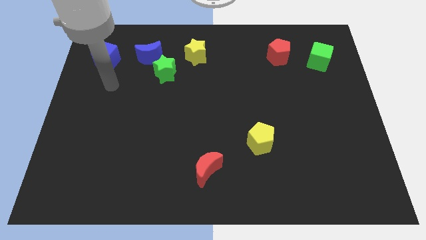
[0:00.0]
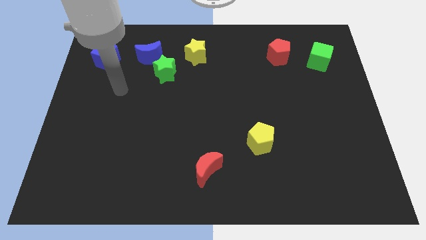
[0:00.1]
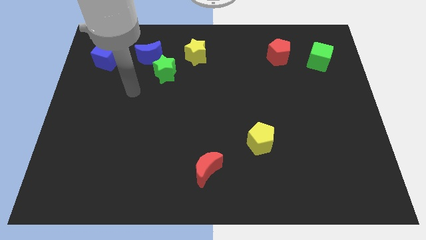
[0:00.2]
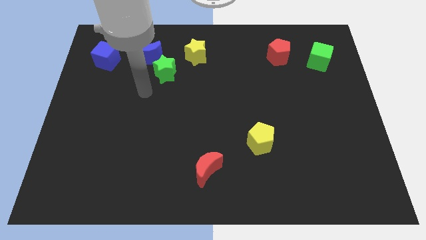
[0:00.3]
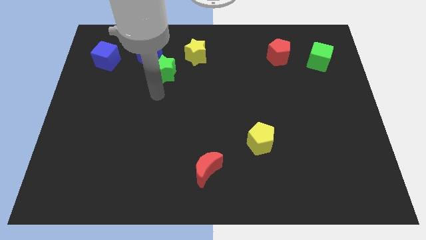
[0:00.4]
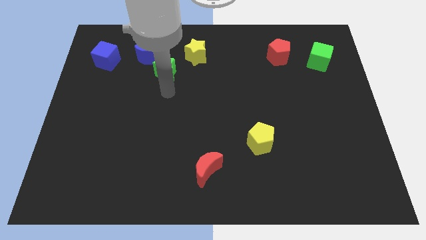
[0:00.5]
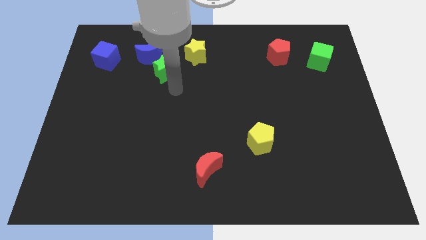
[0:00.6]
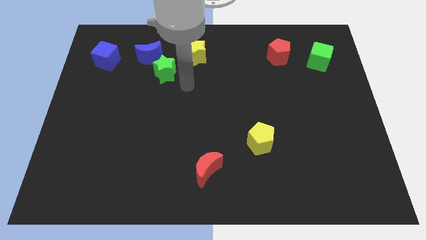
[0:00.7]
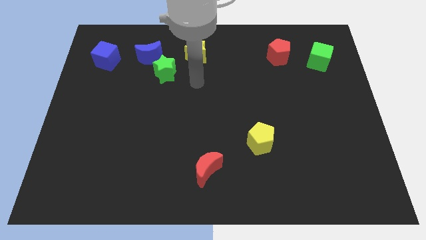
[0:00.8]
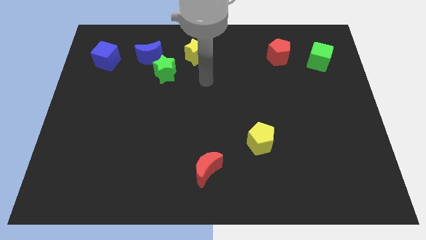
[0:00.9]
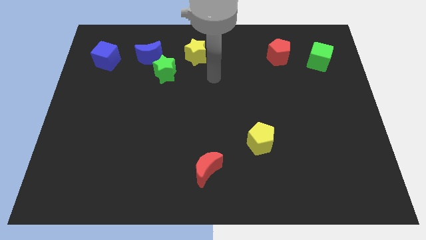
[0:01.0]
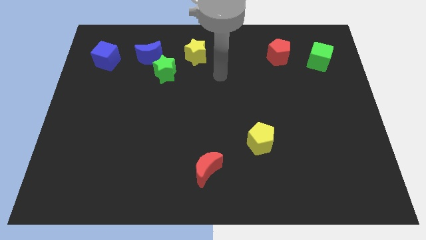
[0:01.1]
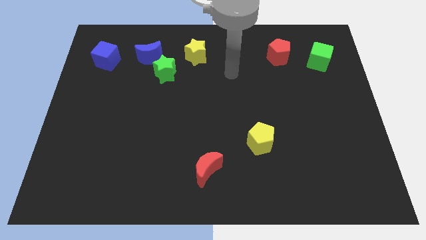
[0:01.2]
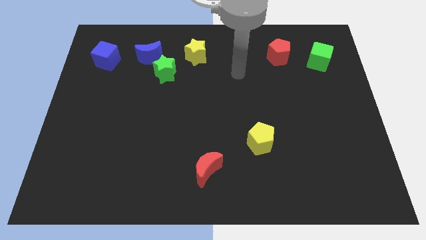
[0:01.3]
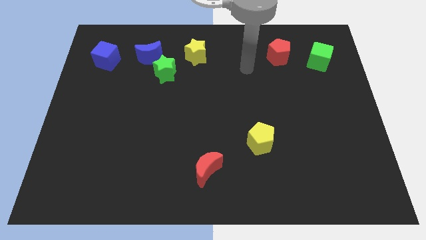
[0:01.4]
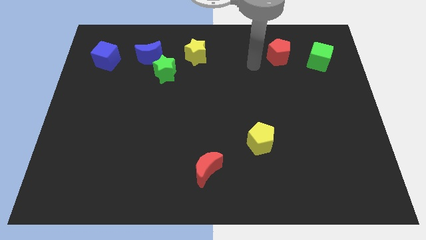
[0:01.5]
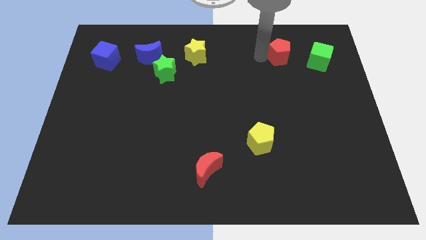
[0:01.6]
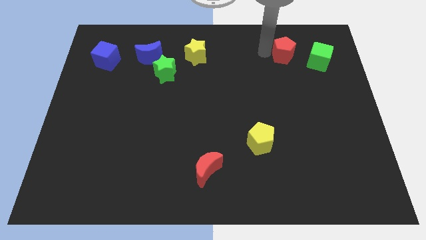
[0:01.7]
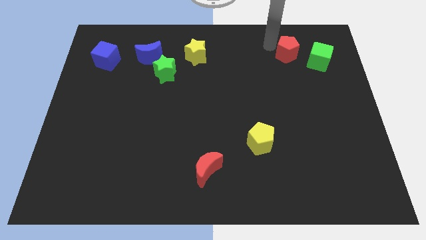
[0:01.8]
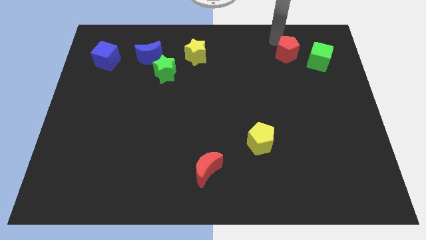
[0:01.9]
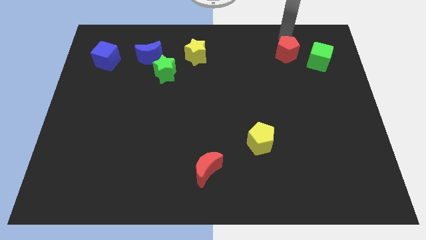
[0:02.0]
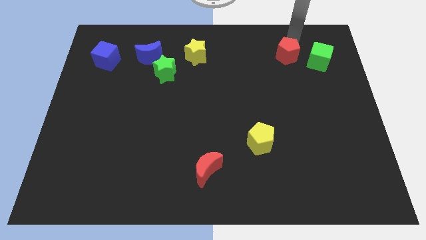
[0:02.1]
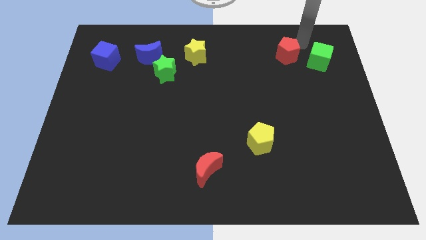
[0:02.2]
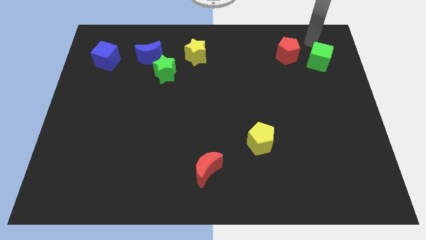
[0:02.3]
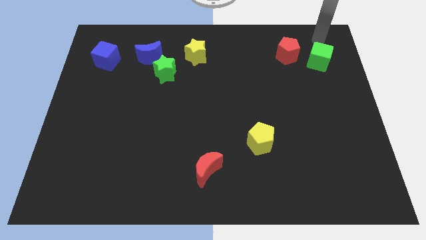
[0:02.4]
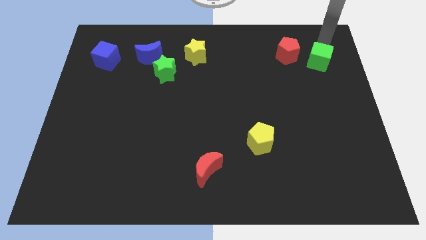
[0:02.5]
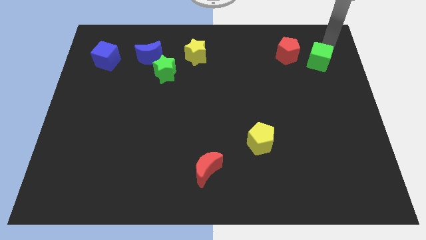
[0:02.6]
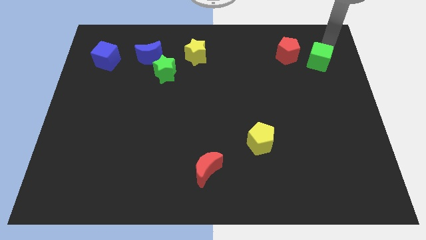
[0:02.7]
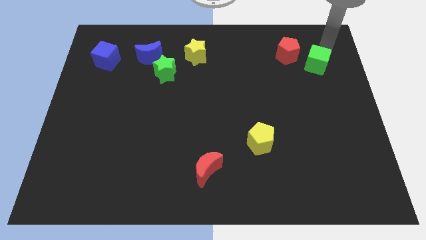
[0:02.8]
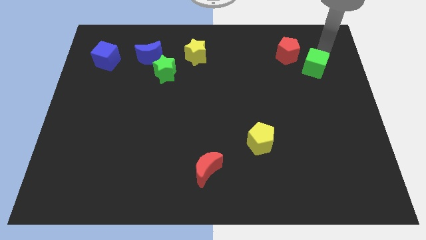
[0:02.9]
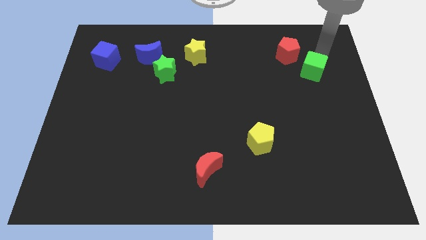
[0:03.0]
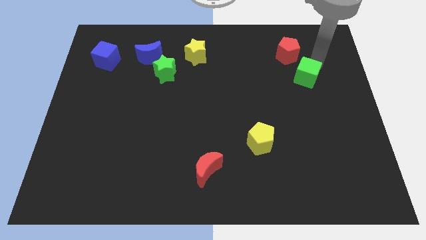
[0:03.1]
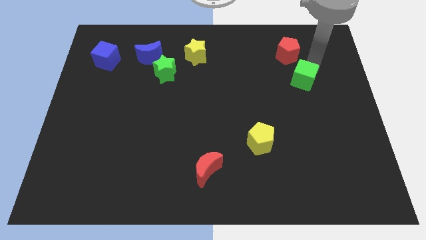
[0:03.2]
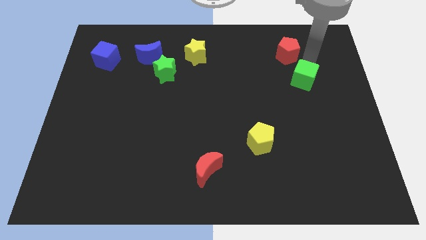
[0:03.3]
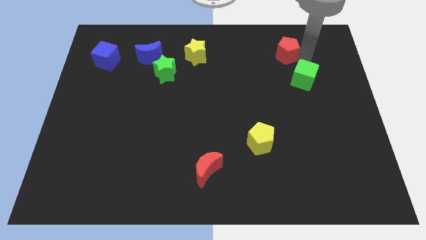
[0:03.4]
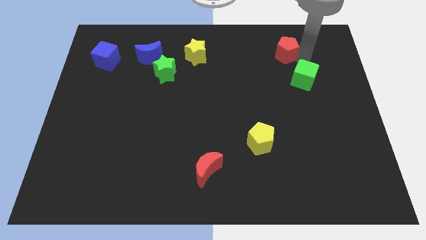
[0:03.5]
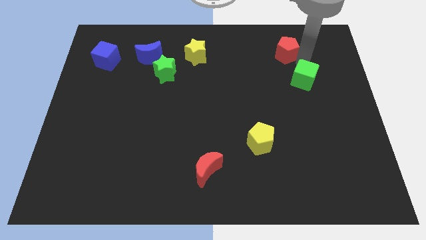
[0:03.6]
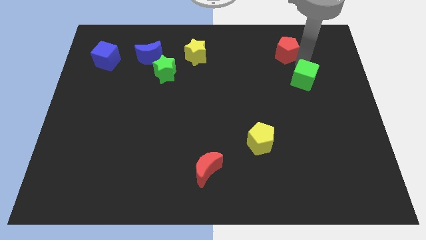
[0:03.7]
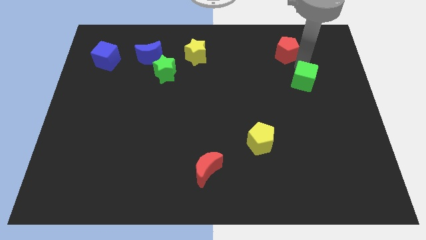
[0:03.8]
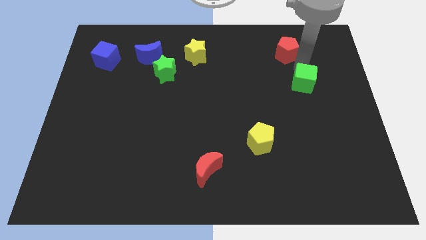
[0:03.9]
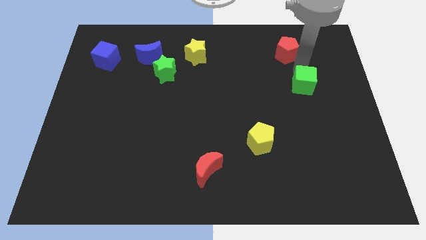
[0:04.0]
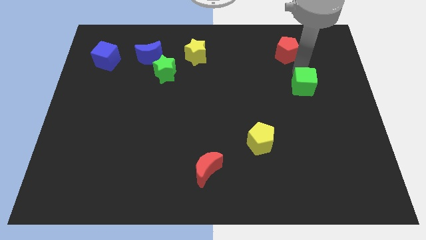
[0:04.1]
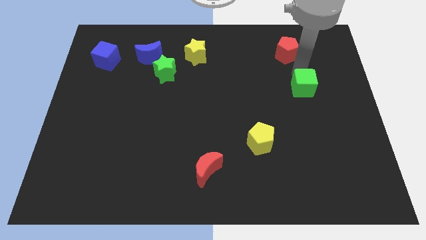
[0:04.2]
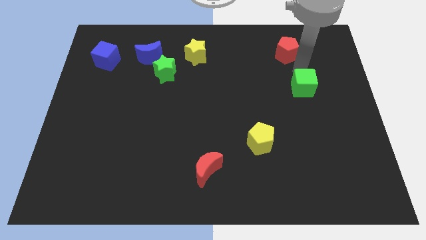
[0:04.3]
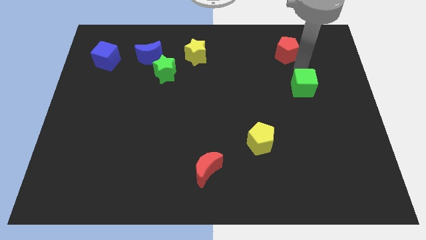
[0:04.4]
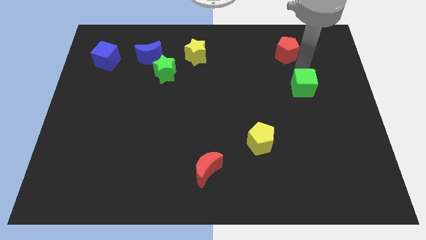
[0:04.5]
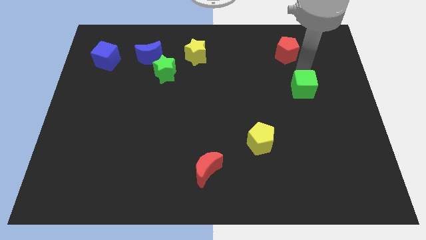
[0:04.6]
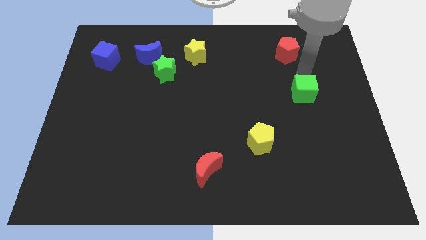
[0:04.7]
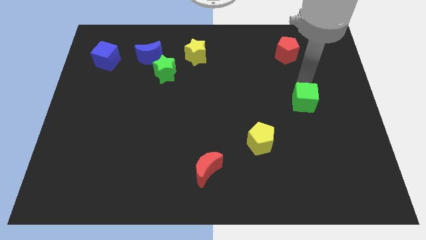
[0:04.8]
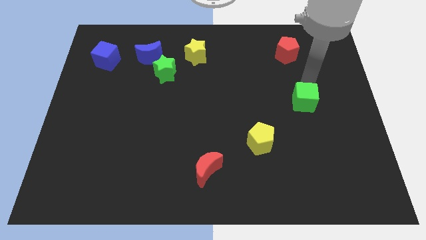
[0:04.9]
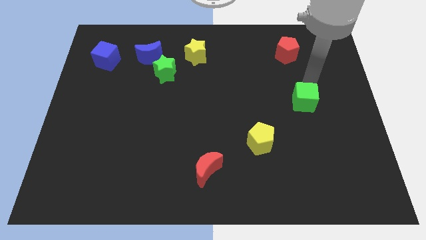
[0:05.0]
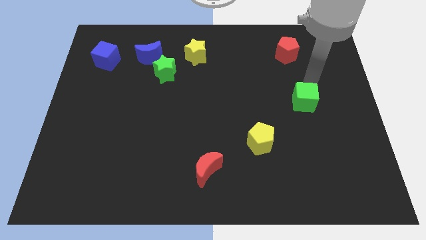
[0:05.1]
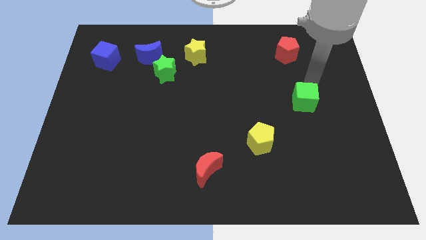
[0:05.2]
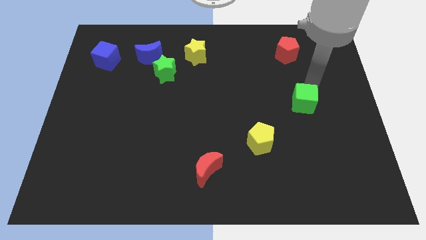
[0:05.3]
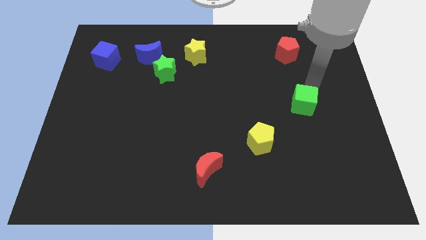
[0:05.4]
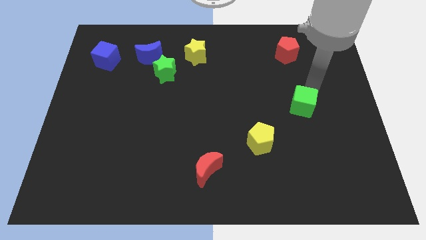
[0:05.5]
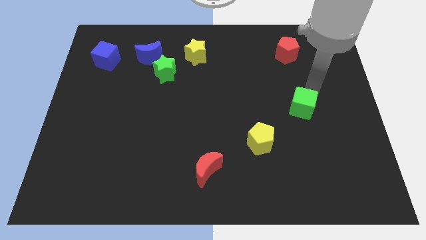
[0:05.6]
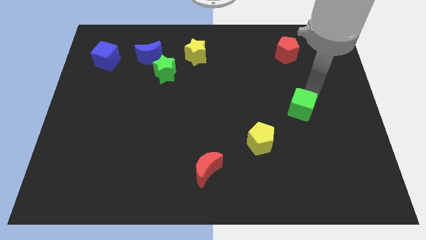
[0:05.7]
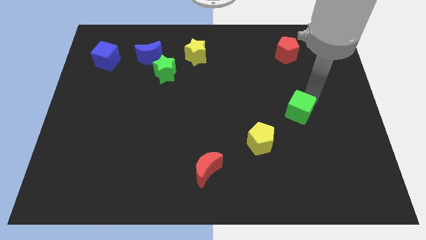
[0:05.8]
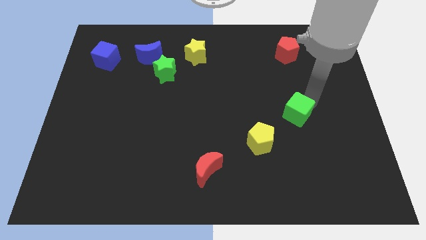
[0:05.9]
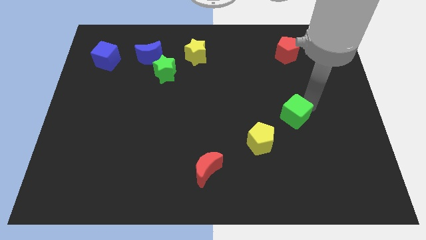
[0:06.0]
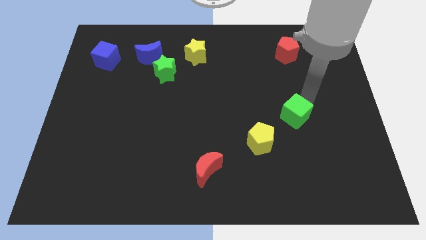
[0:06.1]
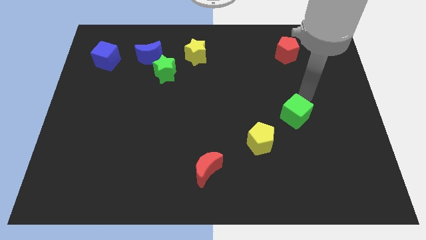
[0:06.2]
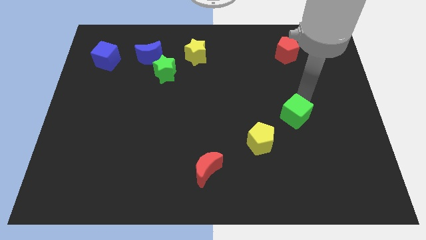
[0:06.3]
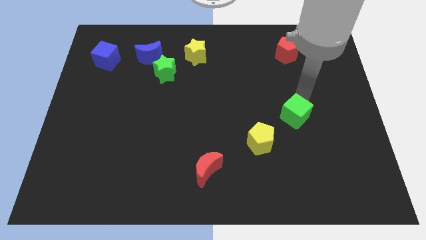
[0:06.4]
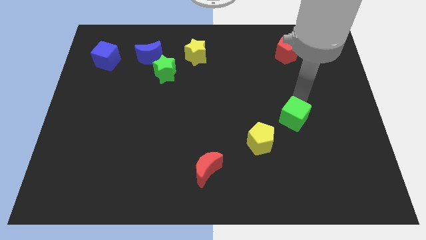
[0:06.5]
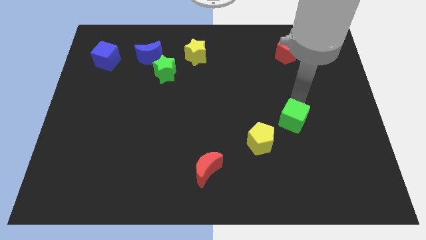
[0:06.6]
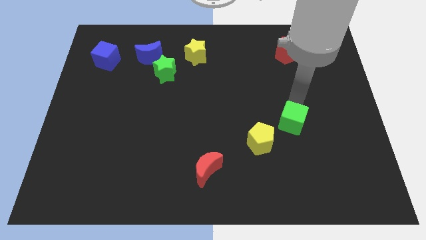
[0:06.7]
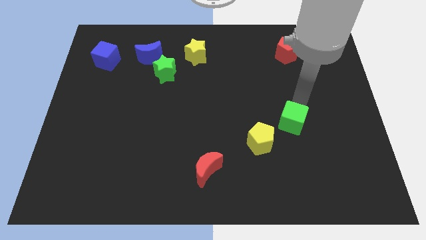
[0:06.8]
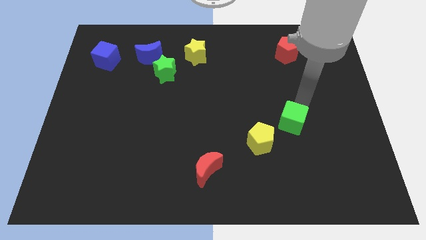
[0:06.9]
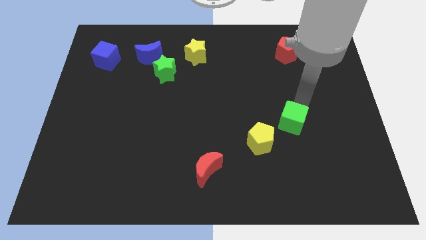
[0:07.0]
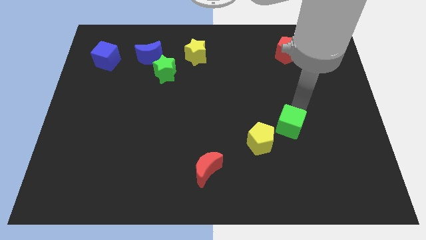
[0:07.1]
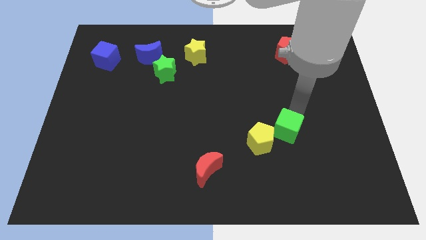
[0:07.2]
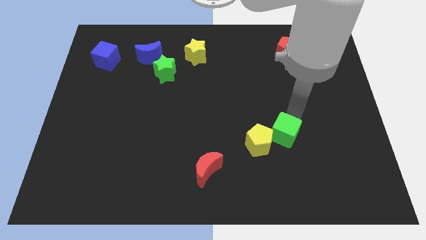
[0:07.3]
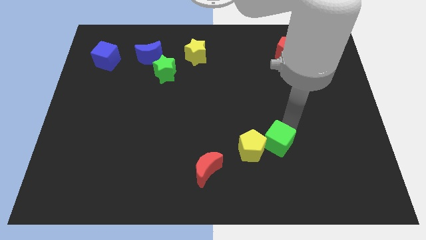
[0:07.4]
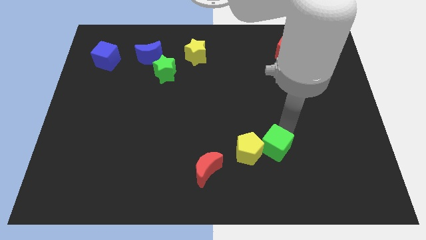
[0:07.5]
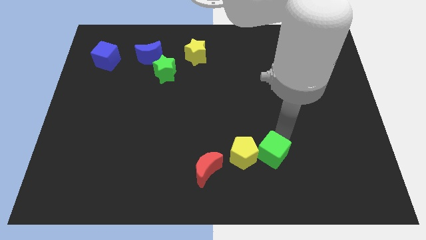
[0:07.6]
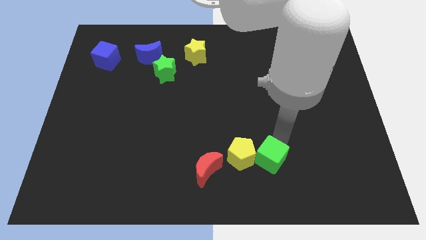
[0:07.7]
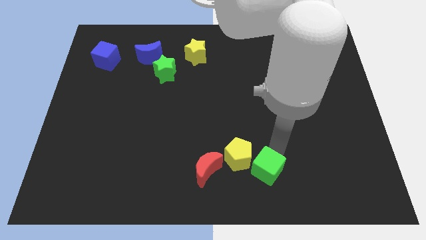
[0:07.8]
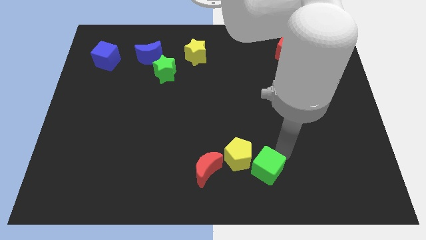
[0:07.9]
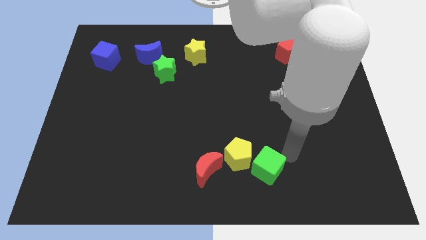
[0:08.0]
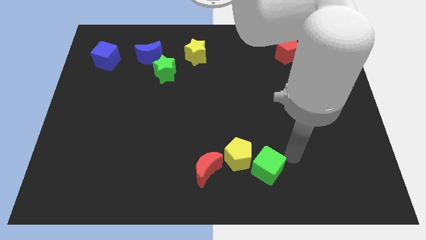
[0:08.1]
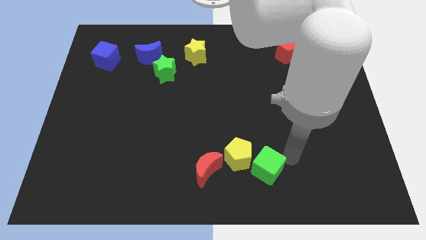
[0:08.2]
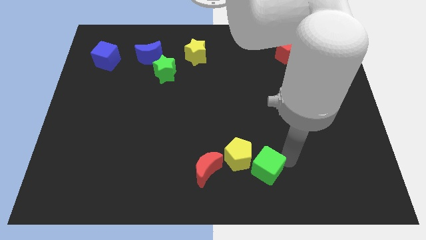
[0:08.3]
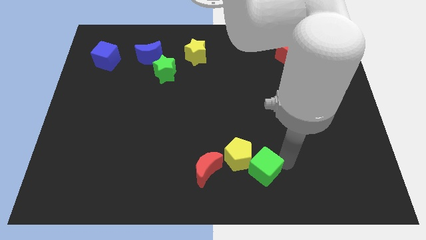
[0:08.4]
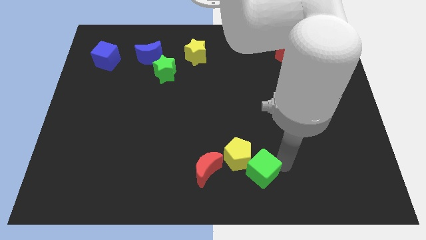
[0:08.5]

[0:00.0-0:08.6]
put the green cube to the bottom
